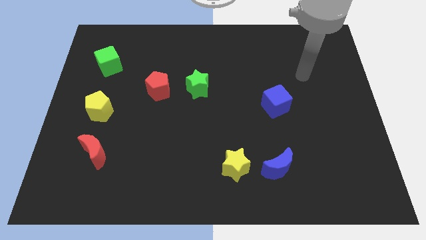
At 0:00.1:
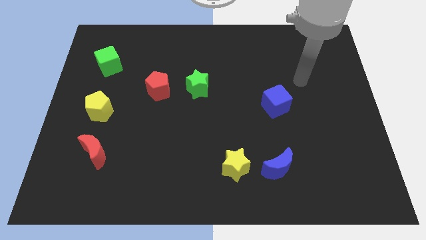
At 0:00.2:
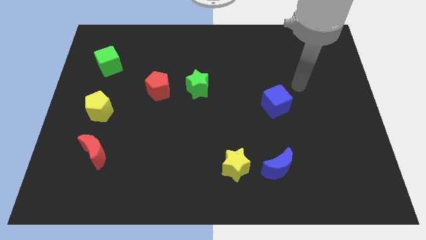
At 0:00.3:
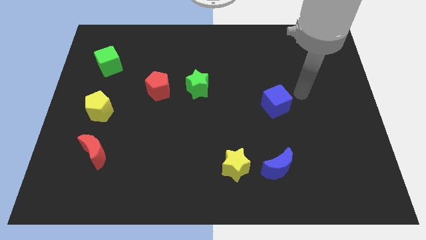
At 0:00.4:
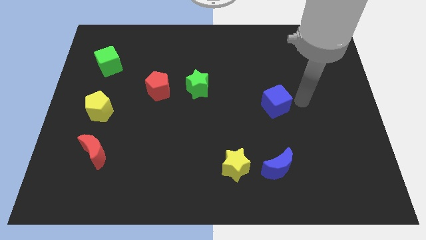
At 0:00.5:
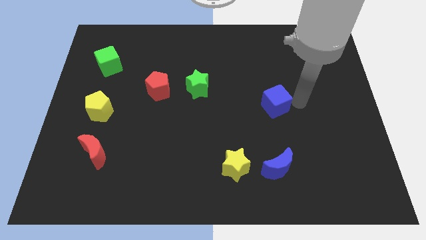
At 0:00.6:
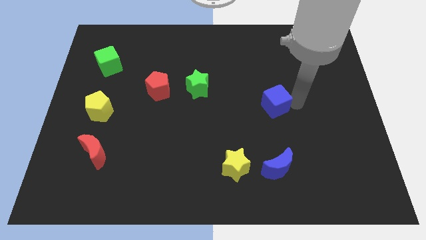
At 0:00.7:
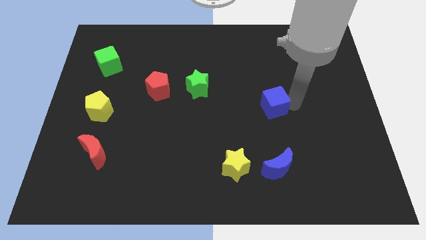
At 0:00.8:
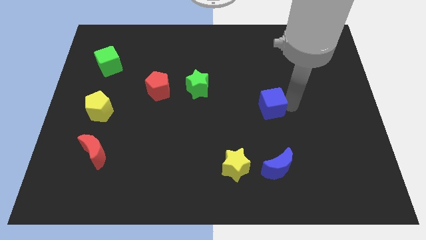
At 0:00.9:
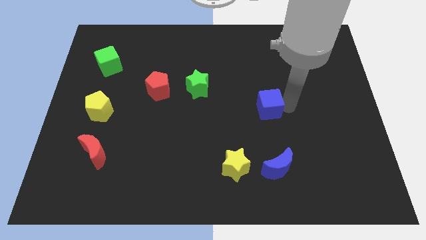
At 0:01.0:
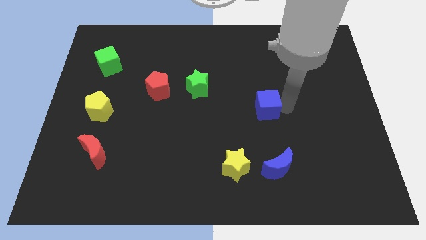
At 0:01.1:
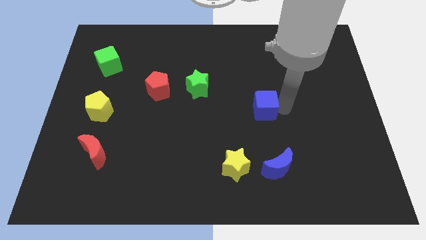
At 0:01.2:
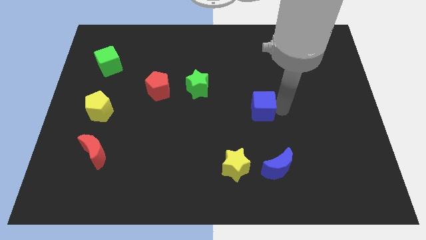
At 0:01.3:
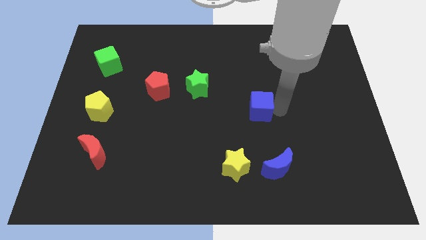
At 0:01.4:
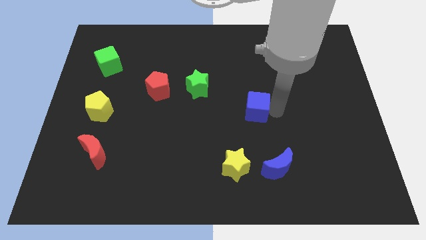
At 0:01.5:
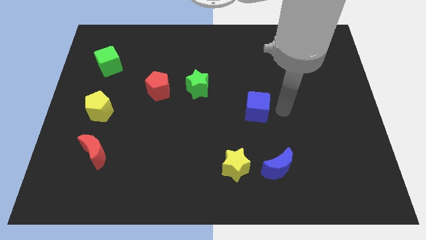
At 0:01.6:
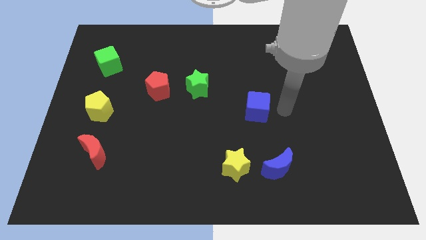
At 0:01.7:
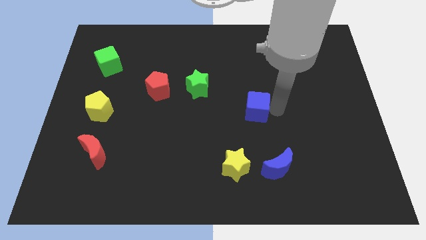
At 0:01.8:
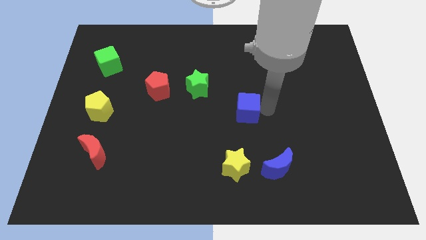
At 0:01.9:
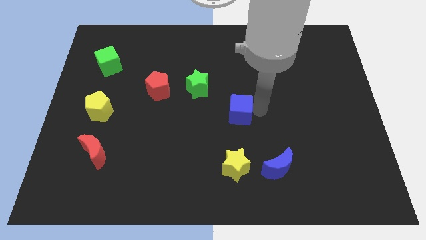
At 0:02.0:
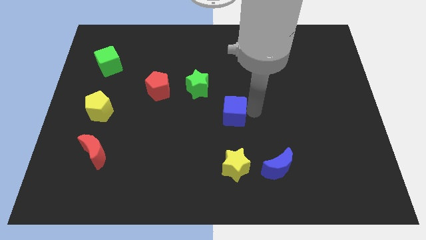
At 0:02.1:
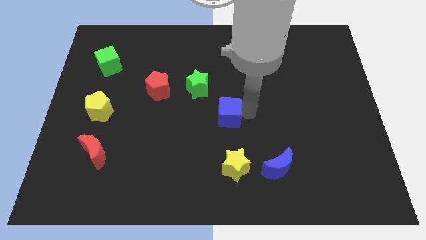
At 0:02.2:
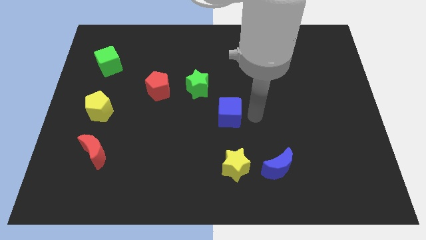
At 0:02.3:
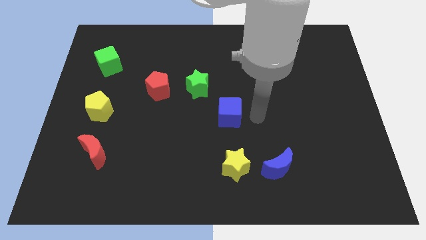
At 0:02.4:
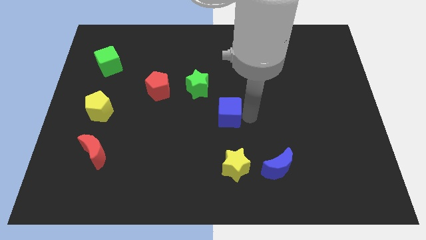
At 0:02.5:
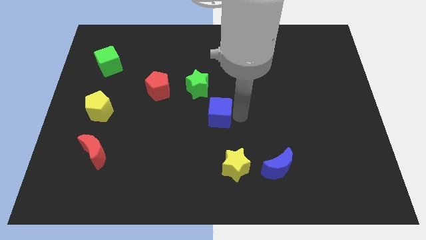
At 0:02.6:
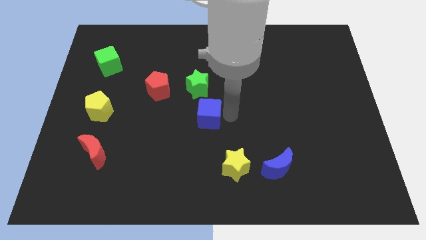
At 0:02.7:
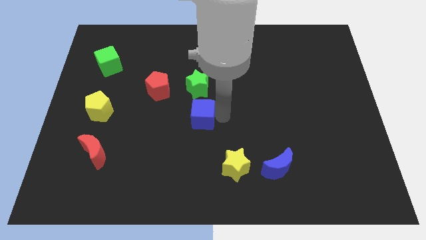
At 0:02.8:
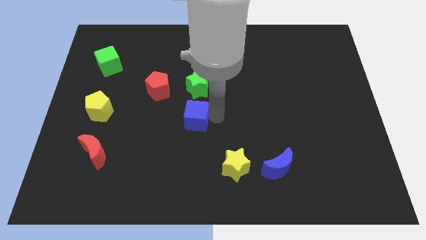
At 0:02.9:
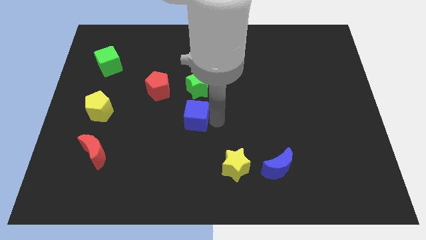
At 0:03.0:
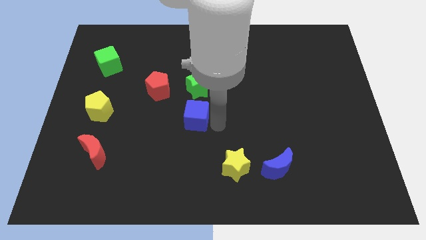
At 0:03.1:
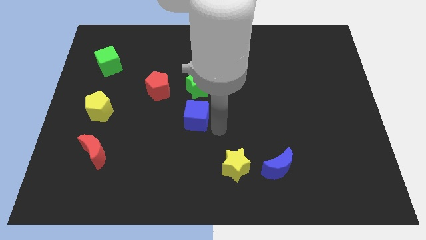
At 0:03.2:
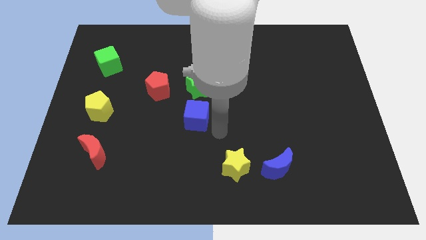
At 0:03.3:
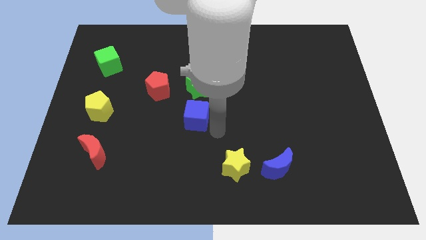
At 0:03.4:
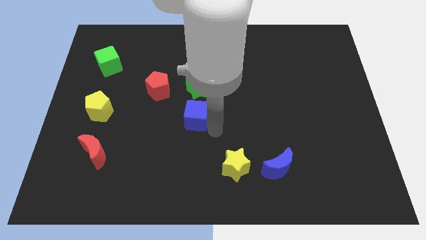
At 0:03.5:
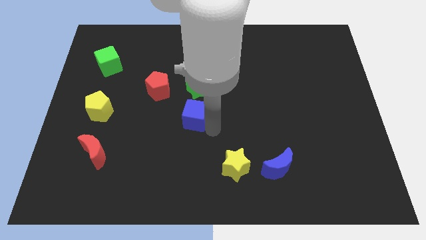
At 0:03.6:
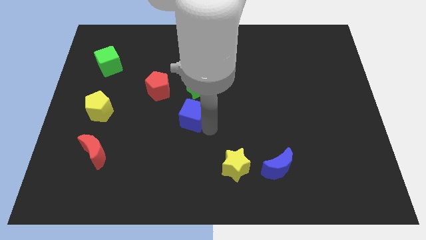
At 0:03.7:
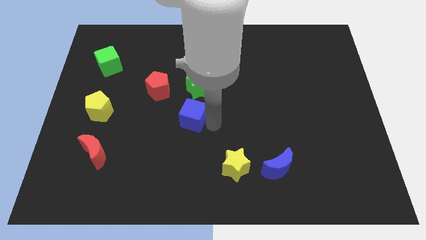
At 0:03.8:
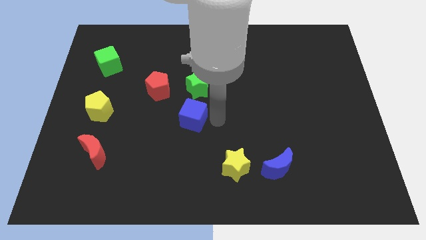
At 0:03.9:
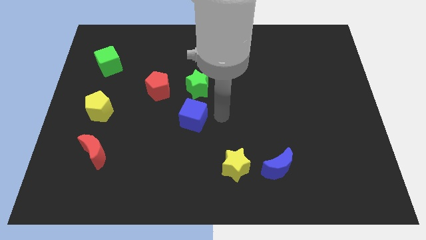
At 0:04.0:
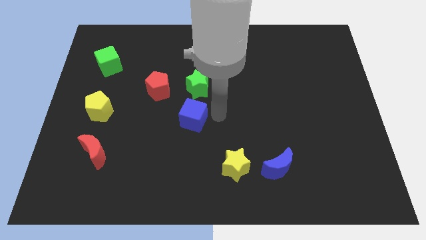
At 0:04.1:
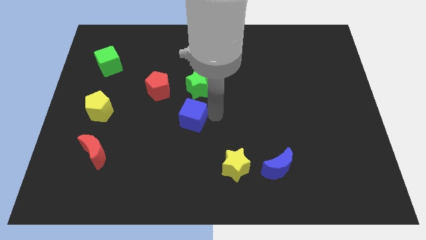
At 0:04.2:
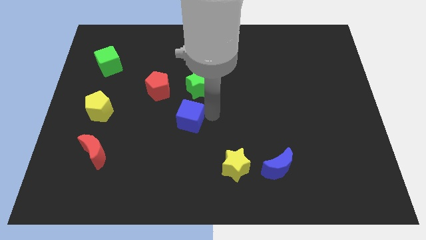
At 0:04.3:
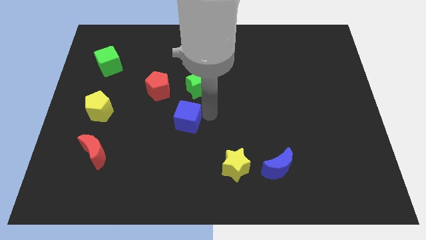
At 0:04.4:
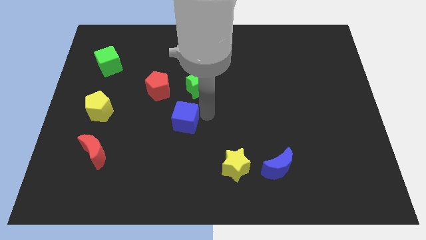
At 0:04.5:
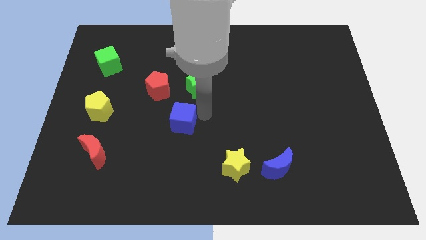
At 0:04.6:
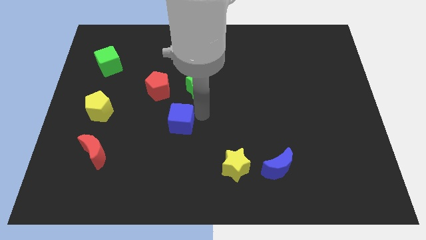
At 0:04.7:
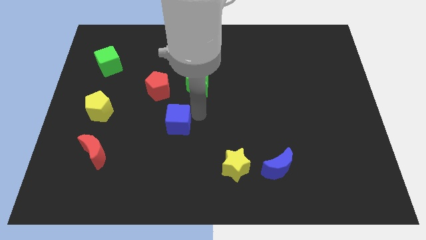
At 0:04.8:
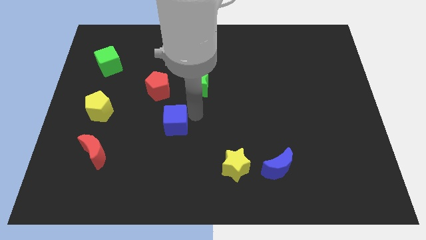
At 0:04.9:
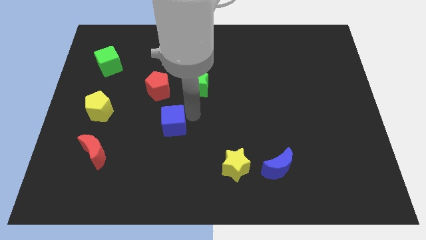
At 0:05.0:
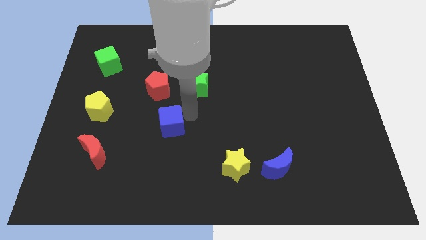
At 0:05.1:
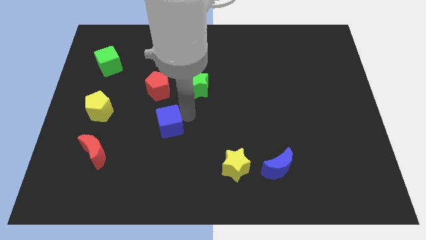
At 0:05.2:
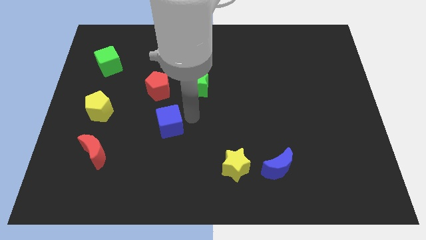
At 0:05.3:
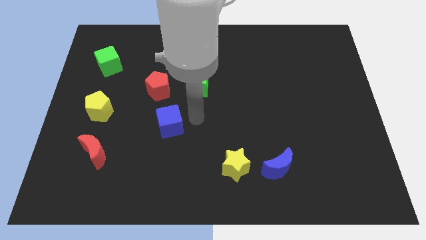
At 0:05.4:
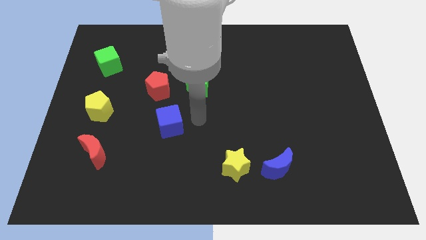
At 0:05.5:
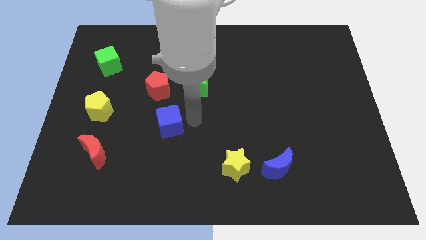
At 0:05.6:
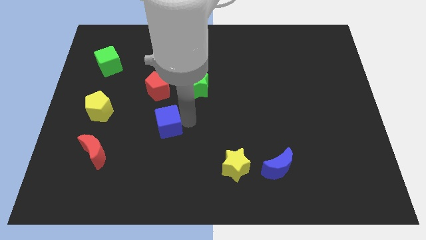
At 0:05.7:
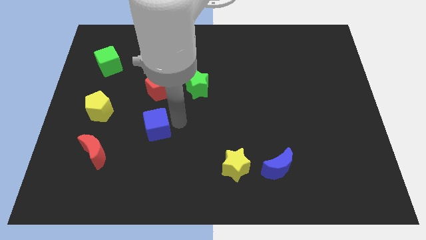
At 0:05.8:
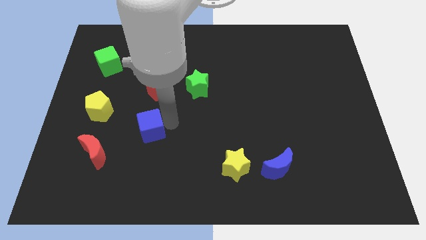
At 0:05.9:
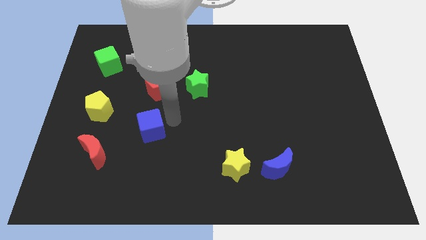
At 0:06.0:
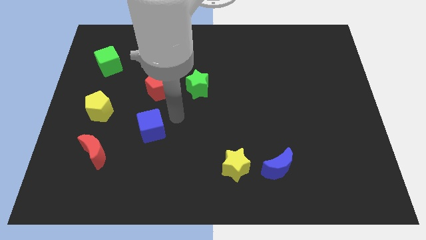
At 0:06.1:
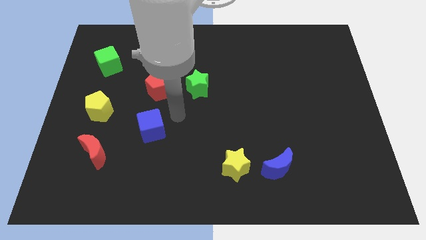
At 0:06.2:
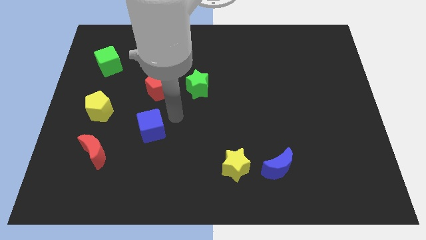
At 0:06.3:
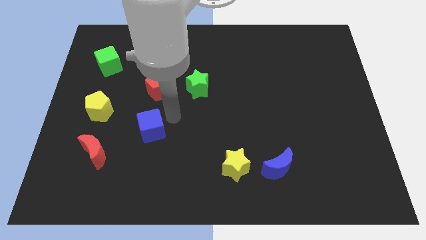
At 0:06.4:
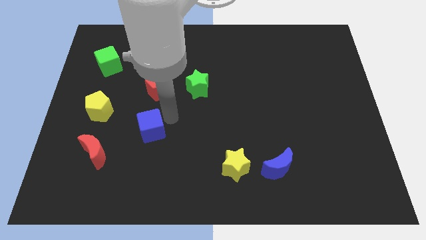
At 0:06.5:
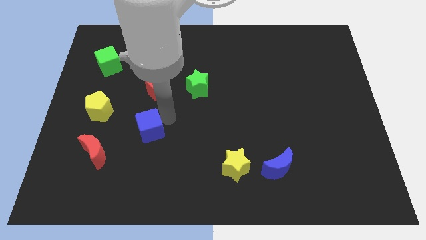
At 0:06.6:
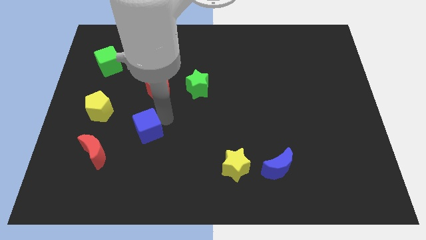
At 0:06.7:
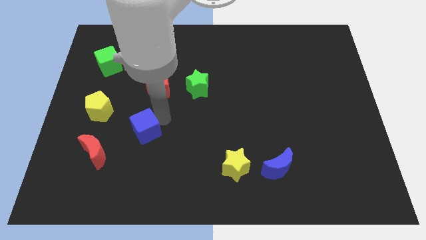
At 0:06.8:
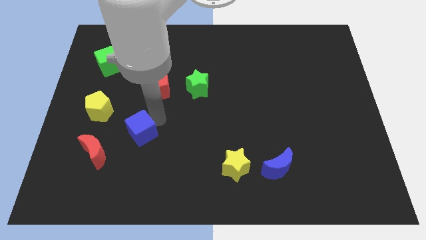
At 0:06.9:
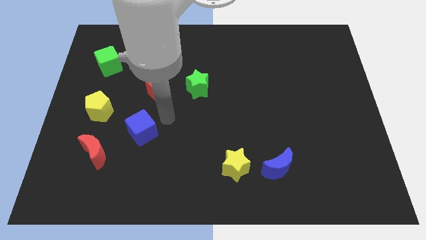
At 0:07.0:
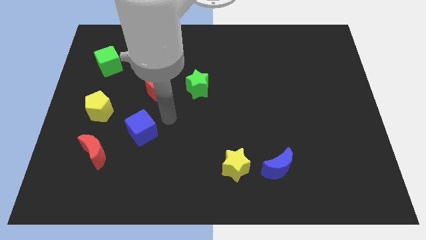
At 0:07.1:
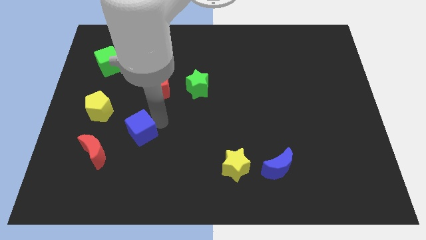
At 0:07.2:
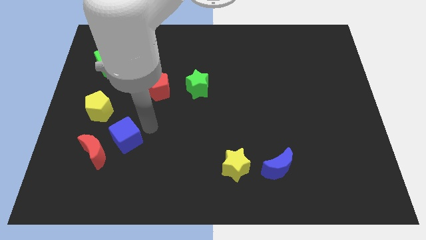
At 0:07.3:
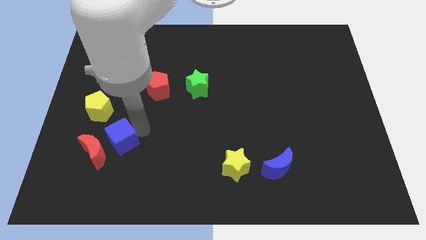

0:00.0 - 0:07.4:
push the blue cube next to the red moon

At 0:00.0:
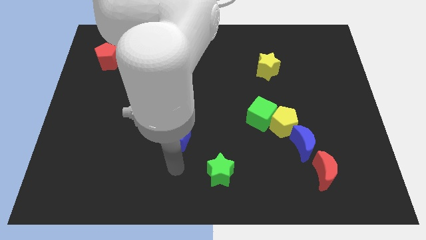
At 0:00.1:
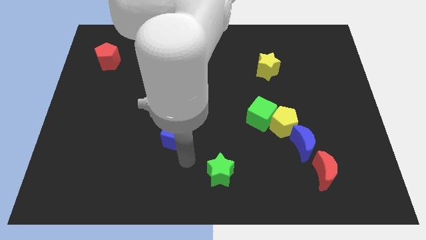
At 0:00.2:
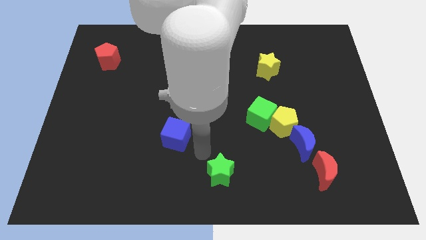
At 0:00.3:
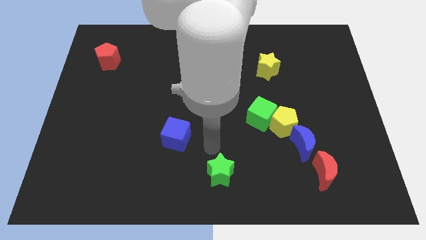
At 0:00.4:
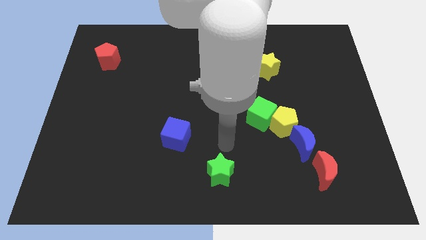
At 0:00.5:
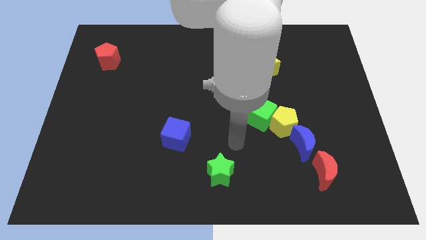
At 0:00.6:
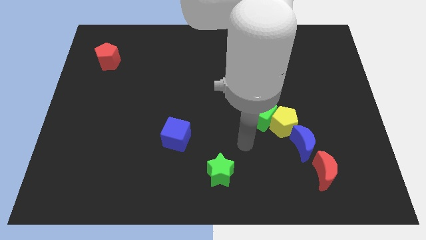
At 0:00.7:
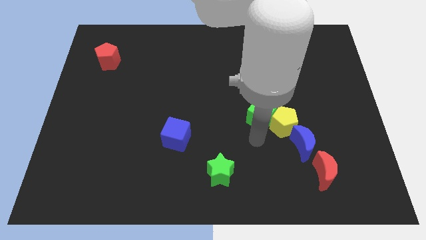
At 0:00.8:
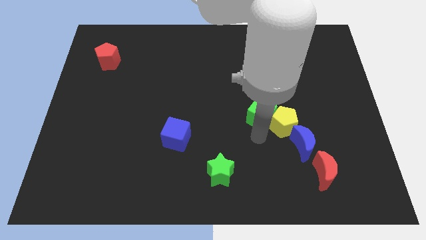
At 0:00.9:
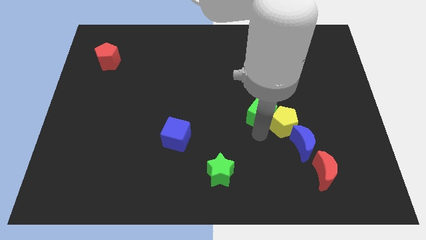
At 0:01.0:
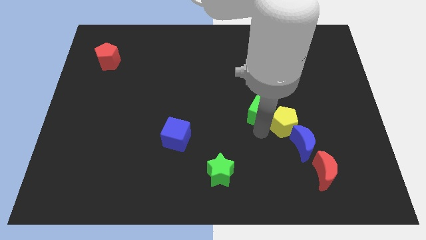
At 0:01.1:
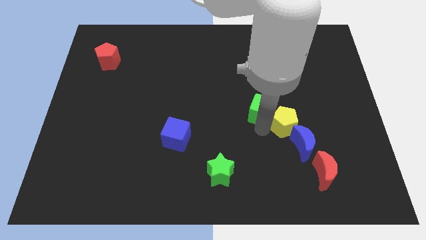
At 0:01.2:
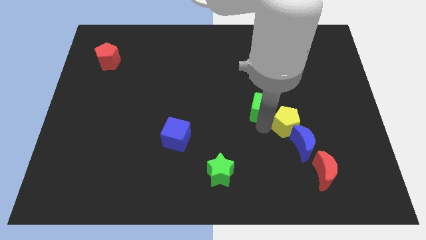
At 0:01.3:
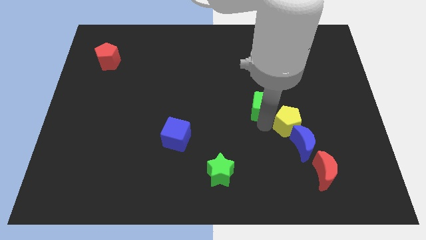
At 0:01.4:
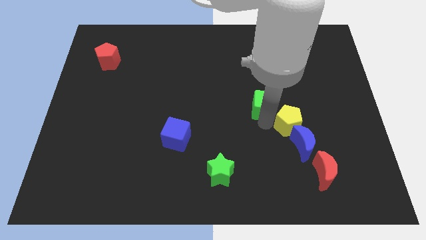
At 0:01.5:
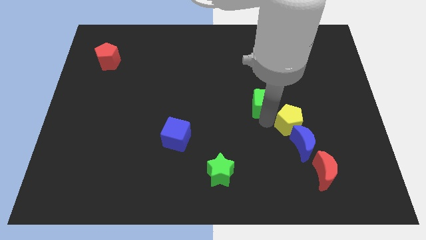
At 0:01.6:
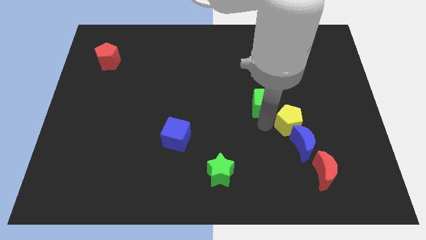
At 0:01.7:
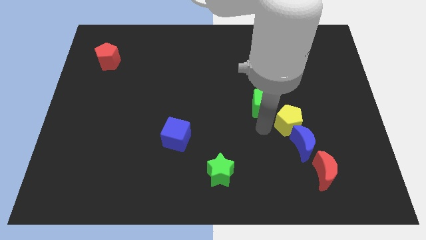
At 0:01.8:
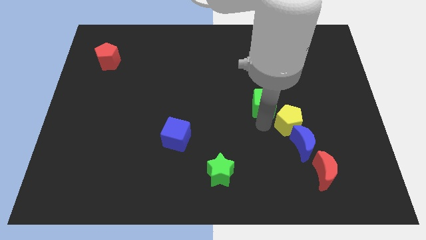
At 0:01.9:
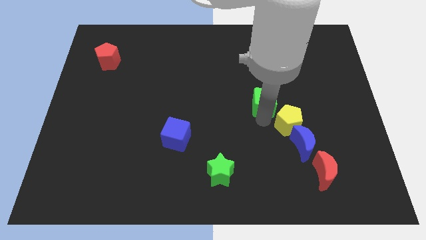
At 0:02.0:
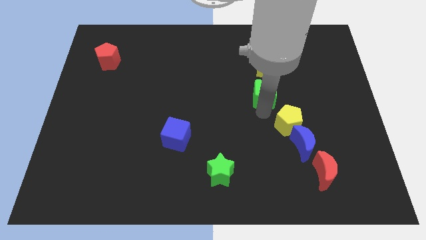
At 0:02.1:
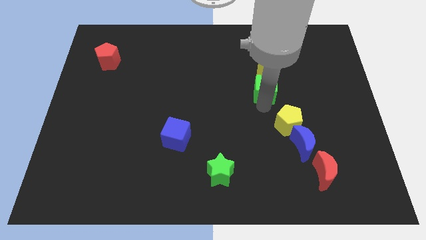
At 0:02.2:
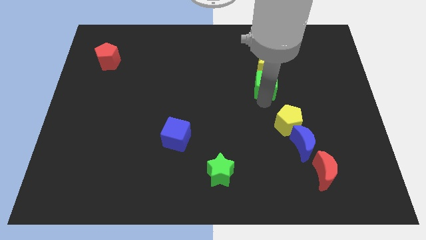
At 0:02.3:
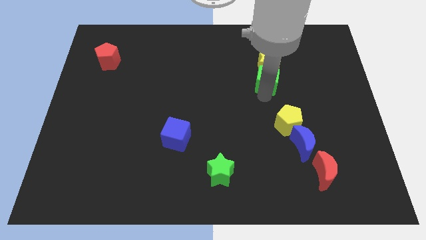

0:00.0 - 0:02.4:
put the green cube close to the yellow star
